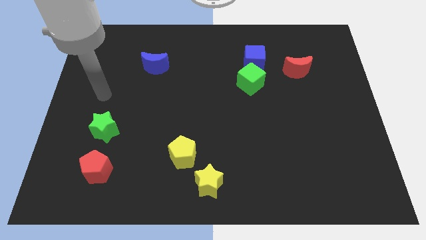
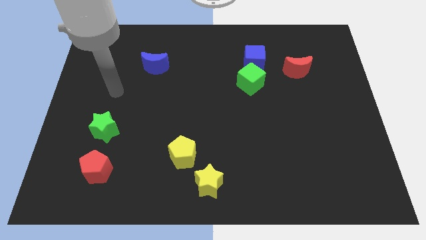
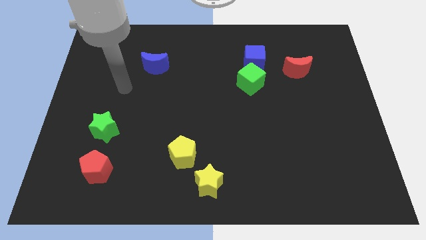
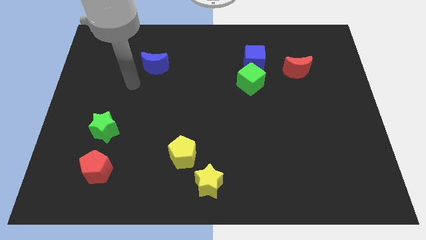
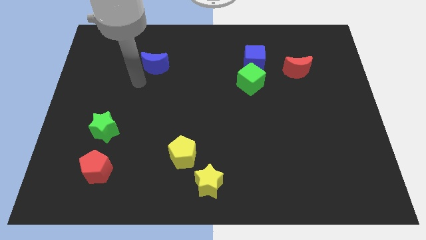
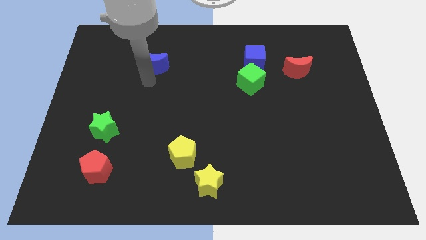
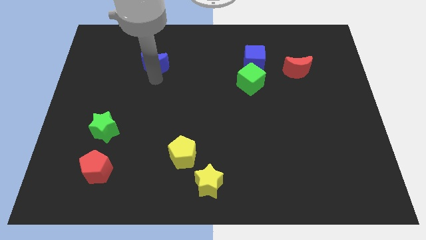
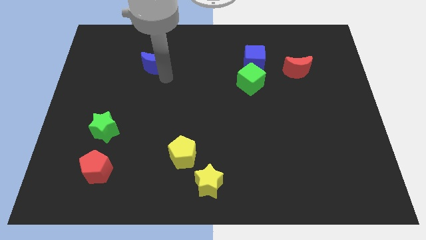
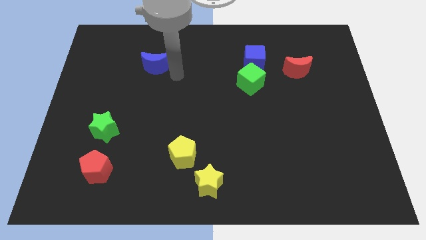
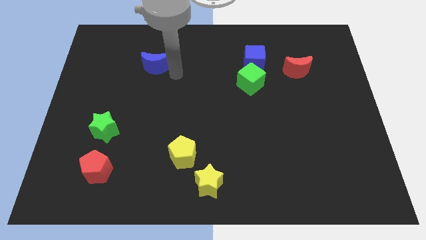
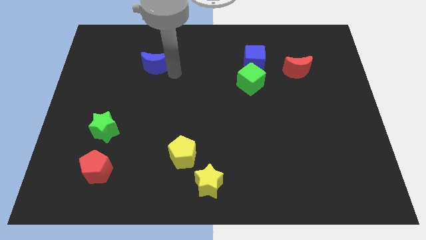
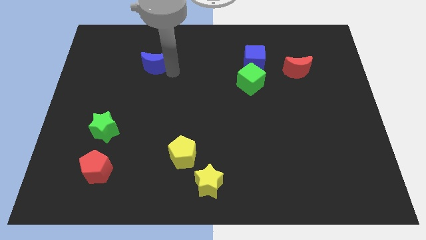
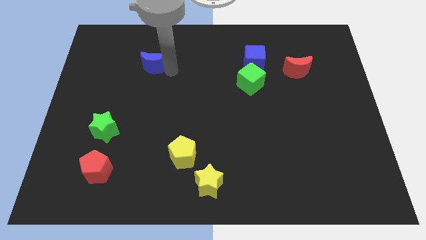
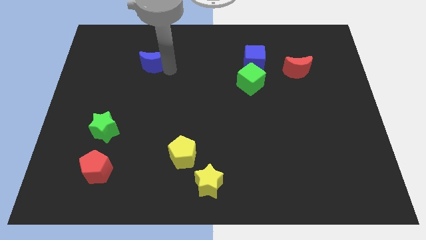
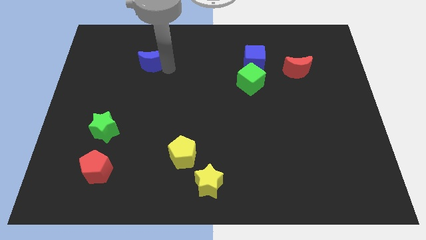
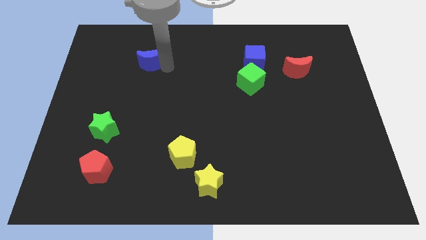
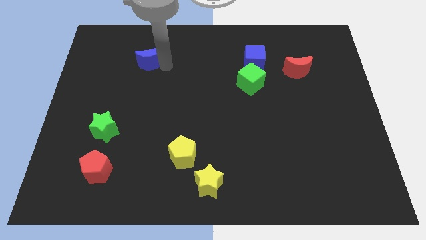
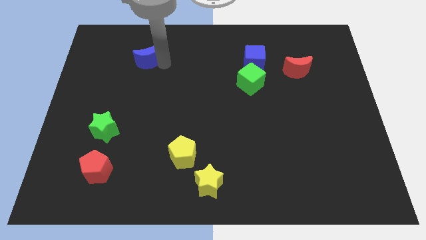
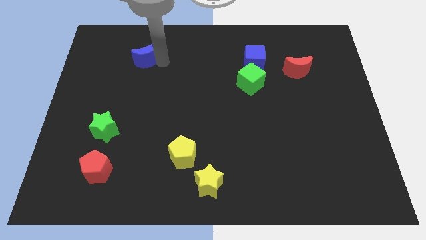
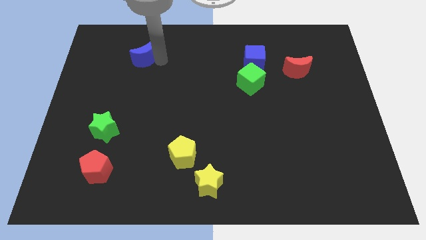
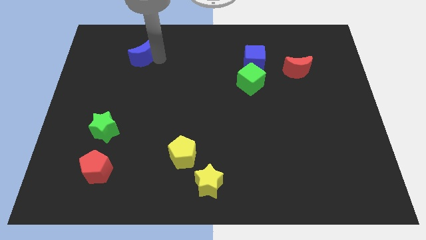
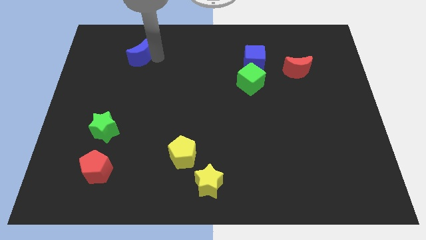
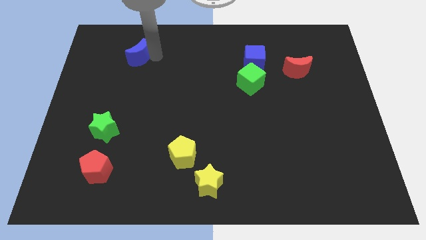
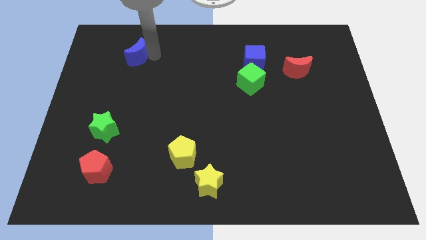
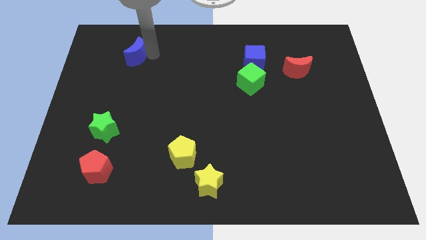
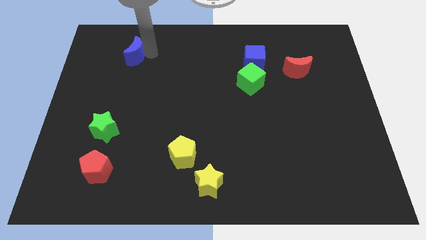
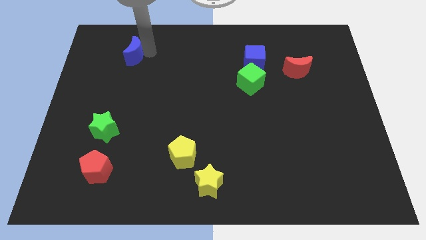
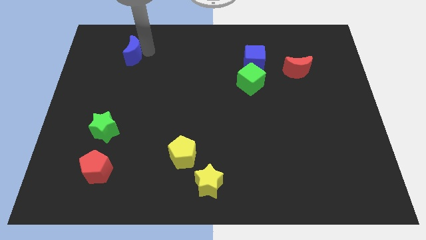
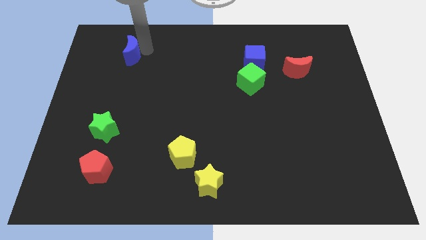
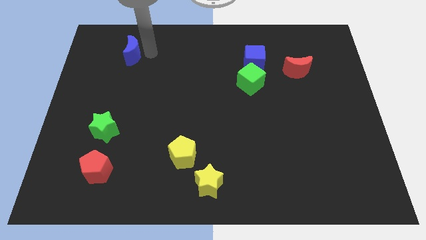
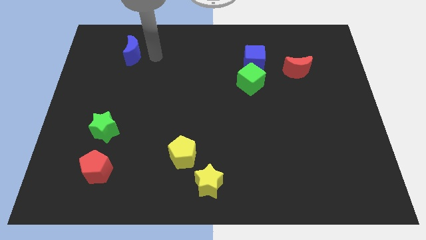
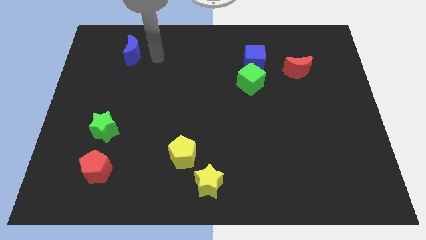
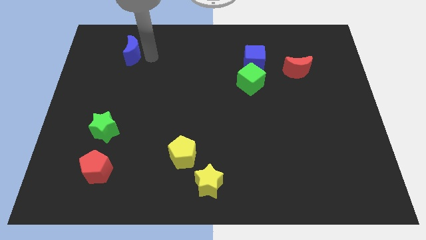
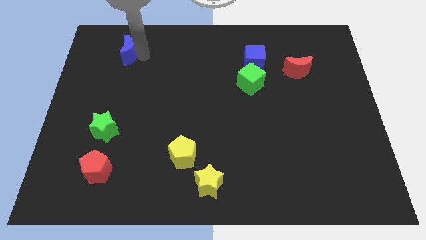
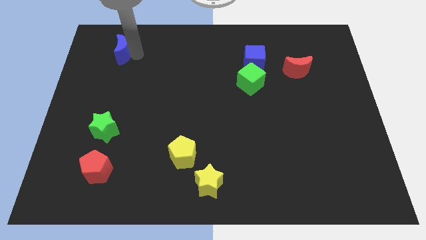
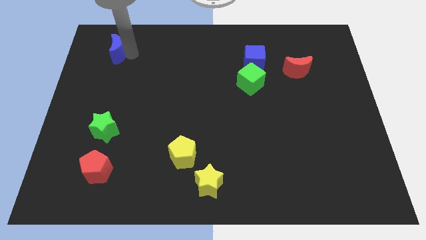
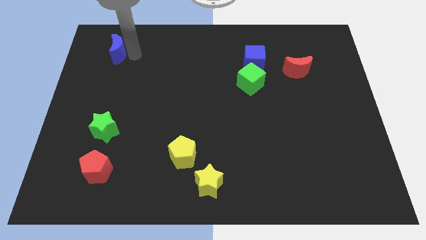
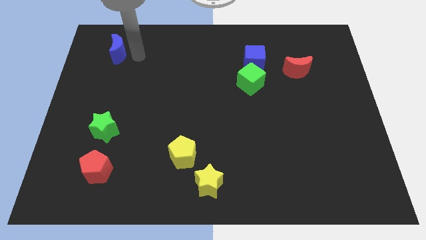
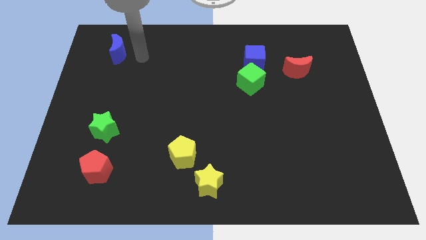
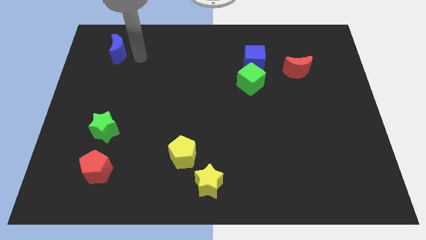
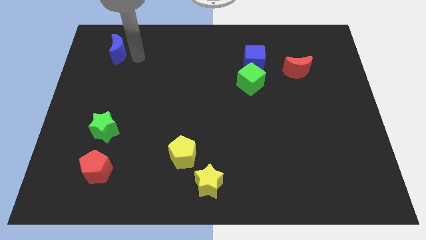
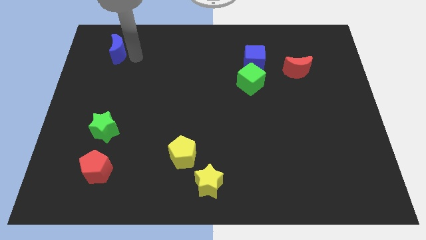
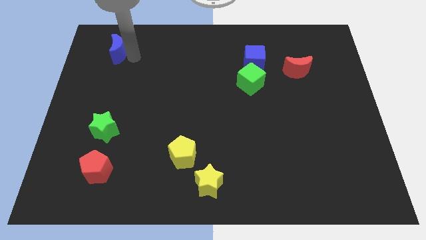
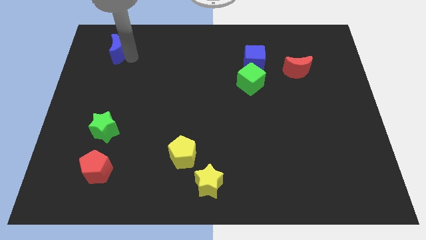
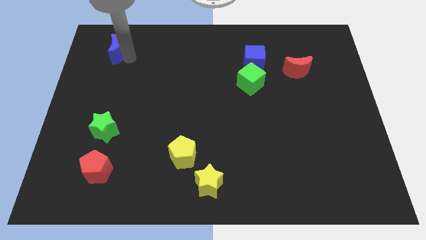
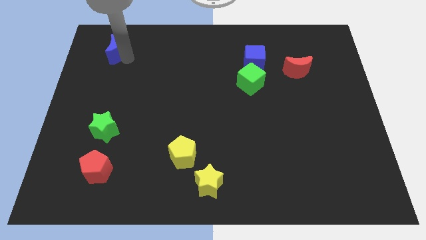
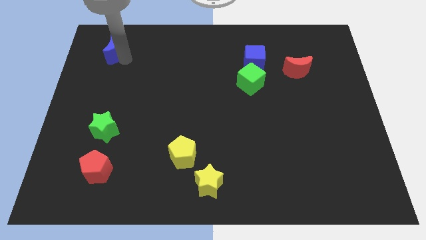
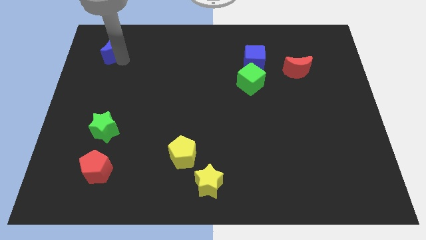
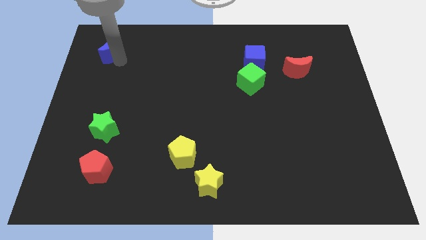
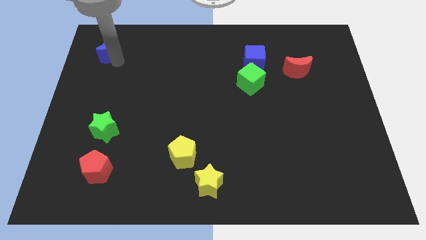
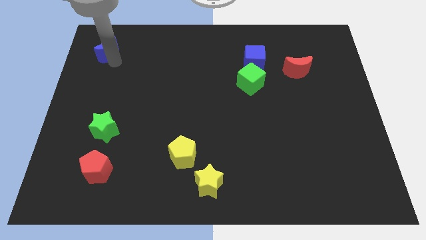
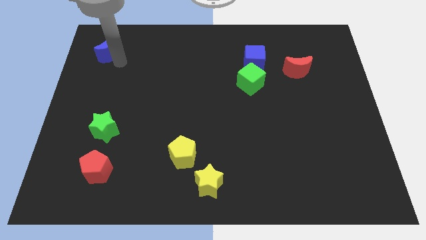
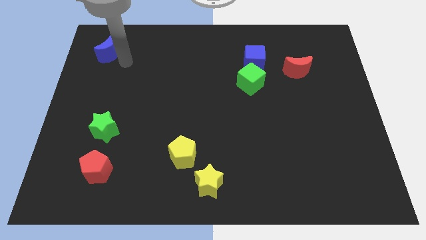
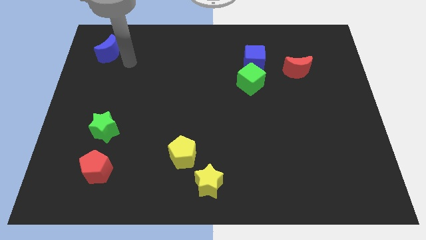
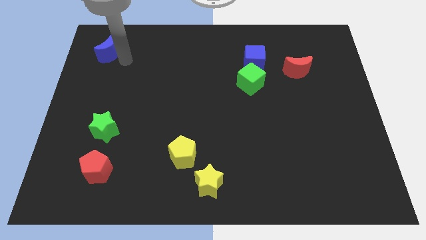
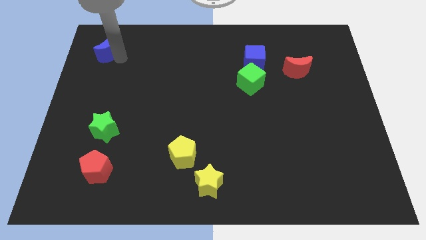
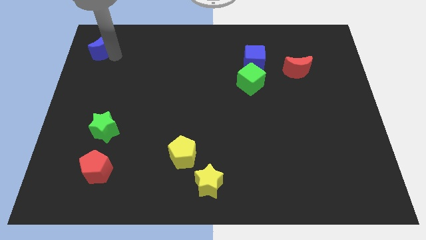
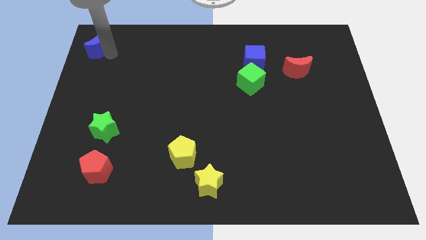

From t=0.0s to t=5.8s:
put the blue moon to the top left corner
